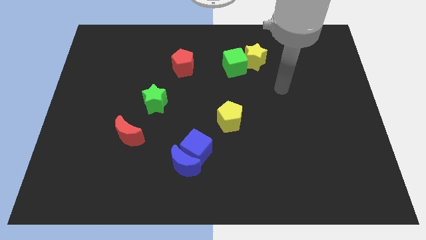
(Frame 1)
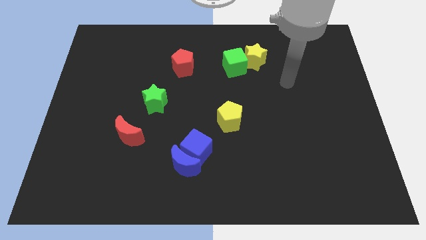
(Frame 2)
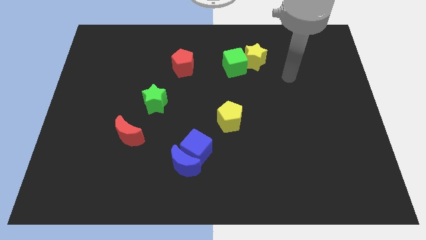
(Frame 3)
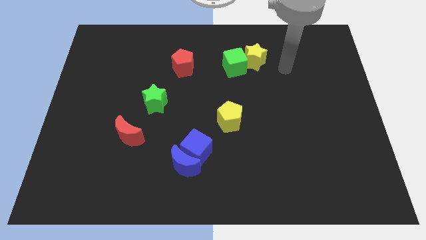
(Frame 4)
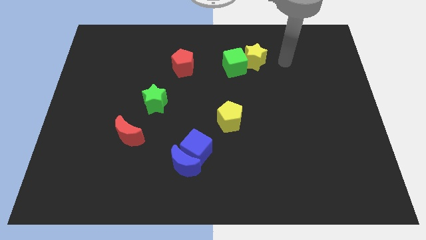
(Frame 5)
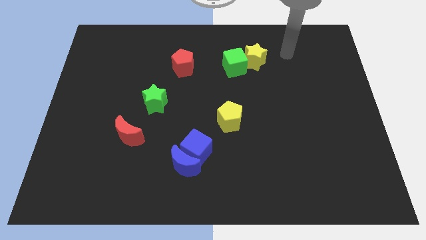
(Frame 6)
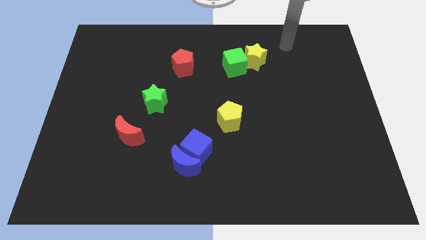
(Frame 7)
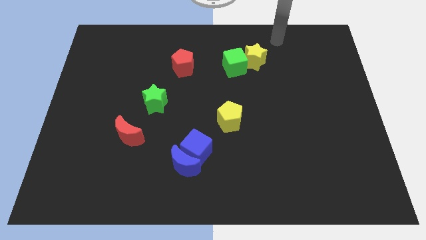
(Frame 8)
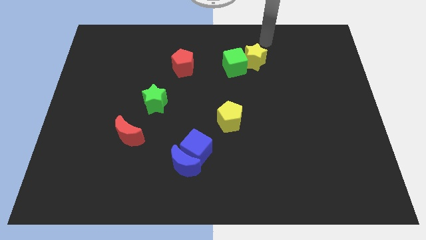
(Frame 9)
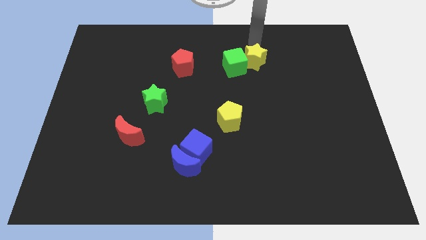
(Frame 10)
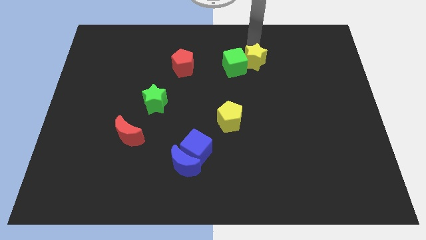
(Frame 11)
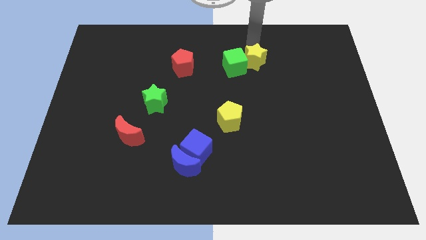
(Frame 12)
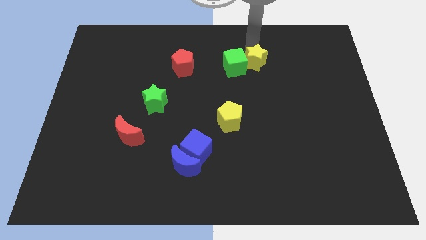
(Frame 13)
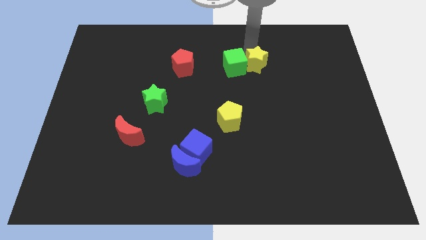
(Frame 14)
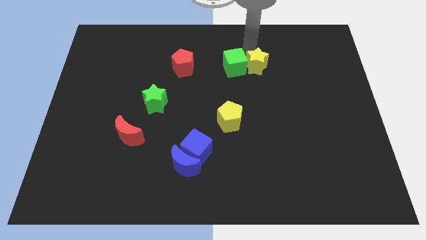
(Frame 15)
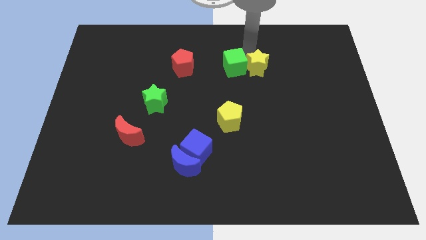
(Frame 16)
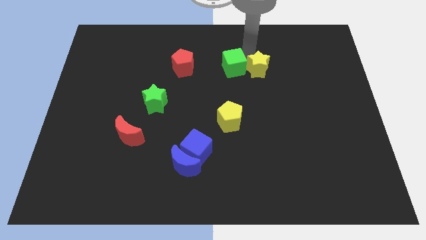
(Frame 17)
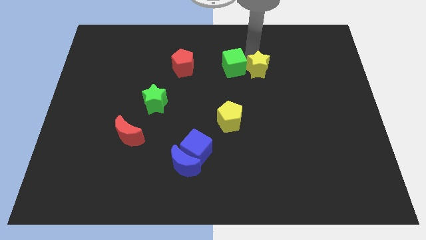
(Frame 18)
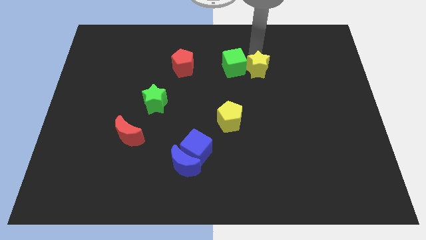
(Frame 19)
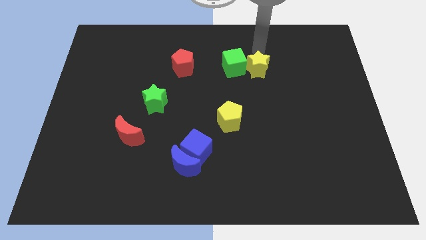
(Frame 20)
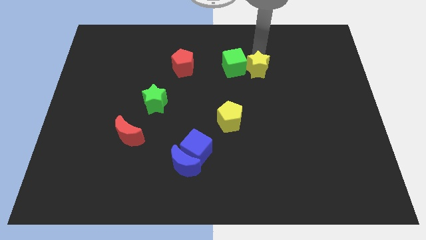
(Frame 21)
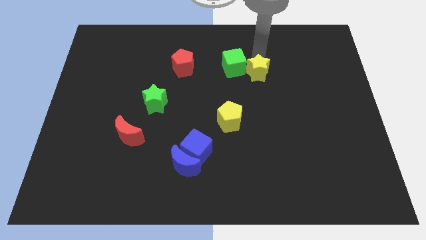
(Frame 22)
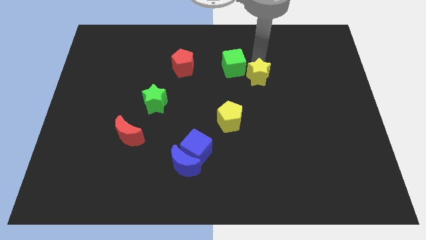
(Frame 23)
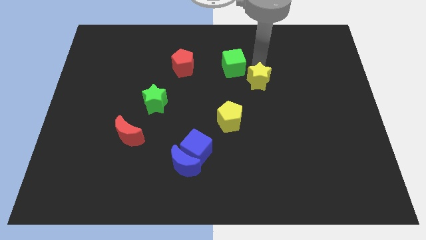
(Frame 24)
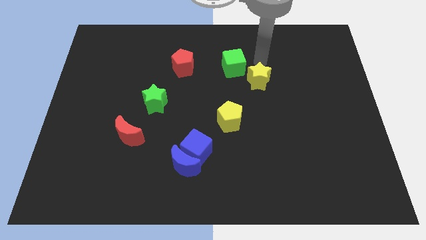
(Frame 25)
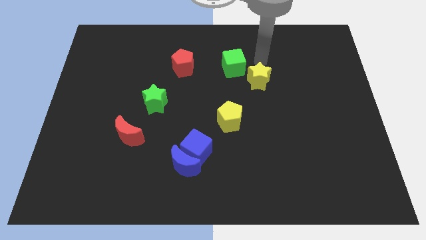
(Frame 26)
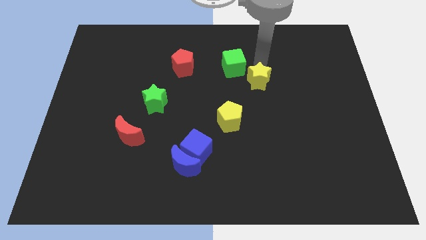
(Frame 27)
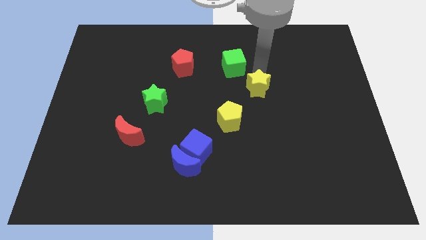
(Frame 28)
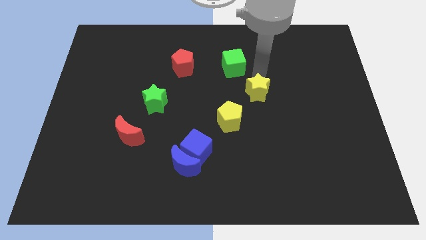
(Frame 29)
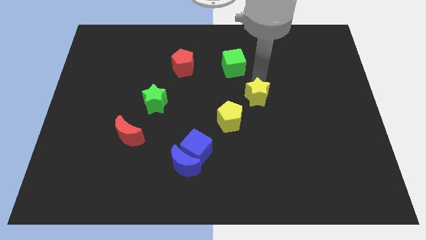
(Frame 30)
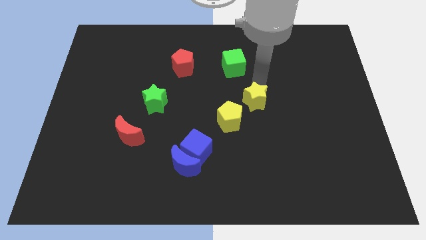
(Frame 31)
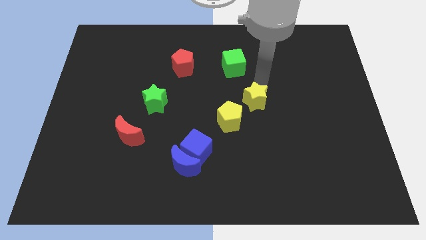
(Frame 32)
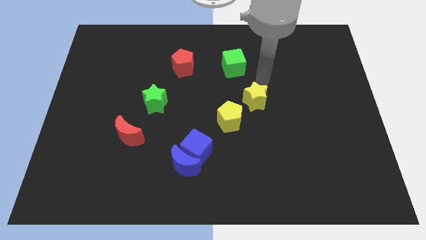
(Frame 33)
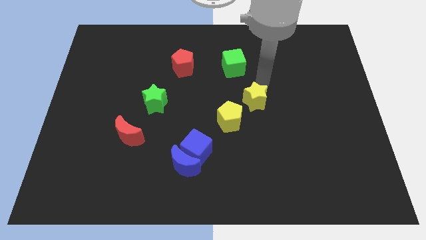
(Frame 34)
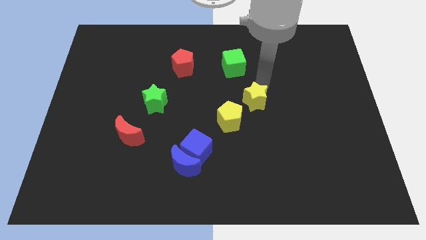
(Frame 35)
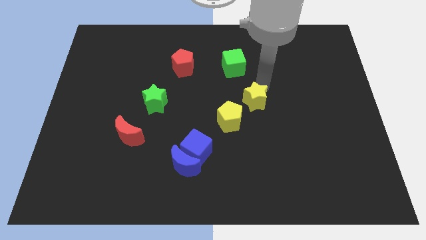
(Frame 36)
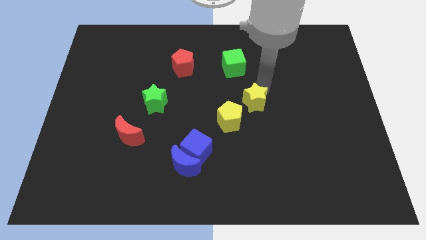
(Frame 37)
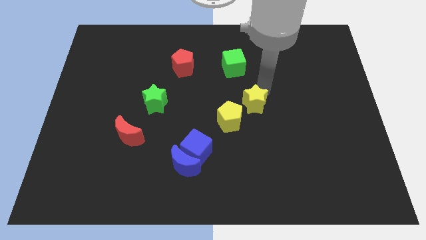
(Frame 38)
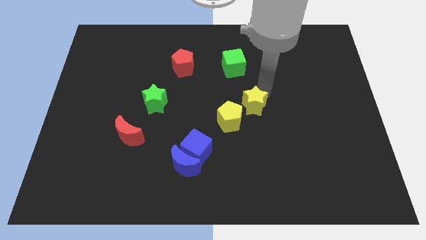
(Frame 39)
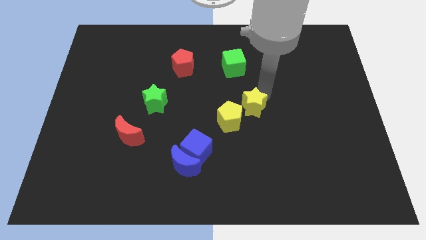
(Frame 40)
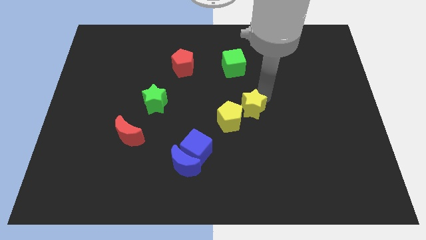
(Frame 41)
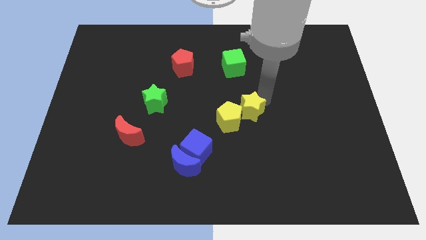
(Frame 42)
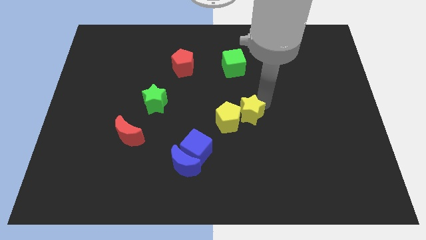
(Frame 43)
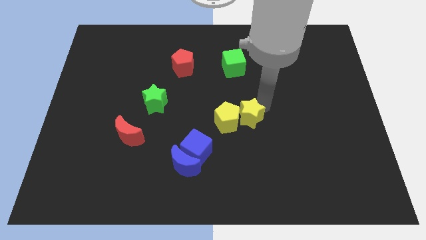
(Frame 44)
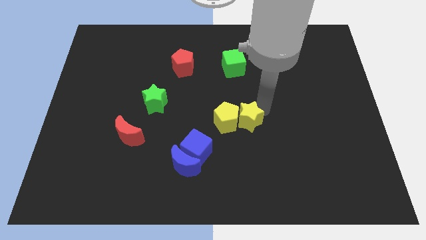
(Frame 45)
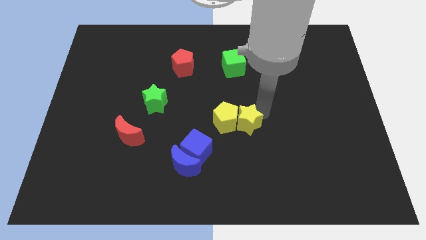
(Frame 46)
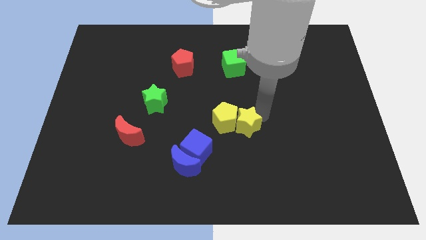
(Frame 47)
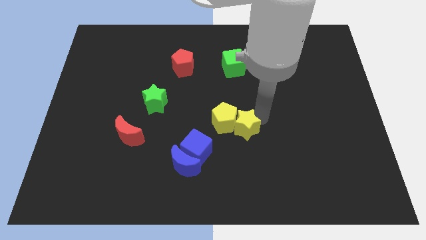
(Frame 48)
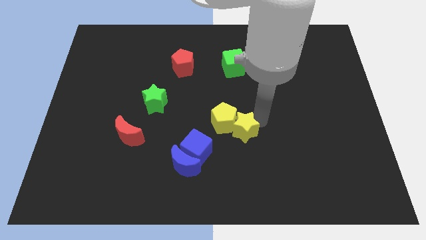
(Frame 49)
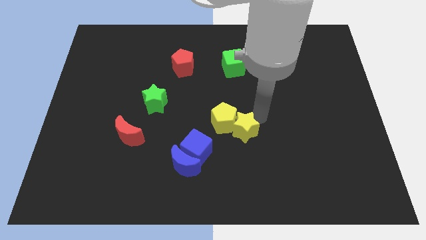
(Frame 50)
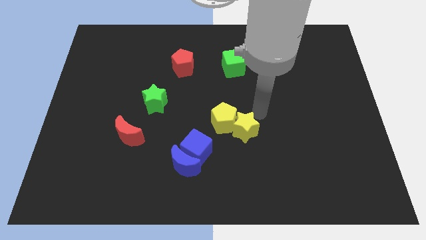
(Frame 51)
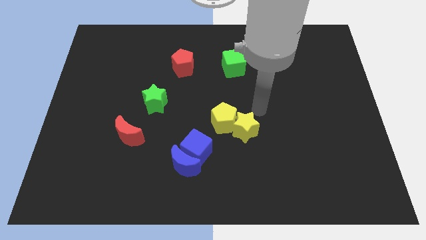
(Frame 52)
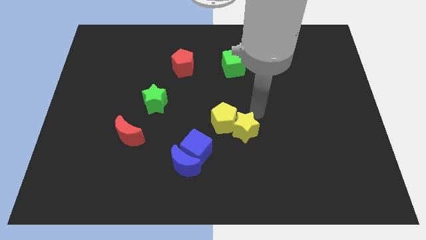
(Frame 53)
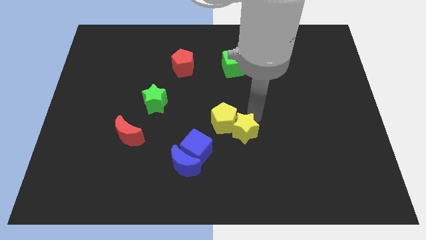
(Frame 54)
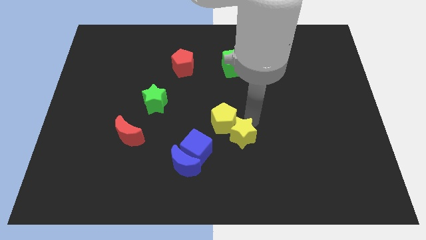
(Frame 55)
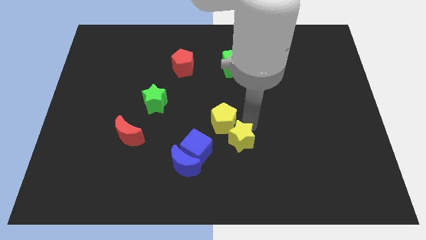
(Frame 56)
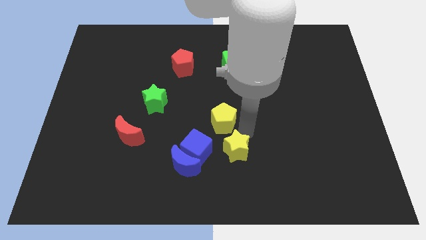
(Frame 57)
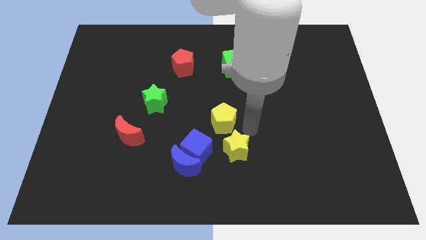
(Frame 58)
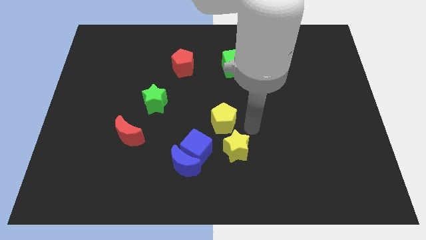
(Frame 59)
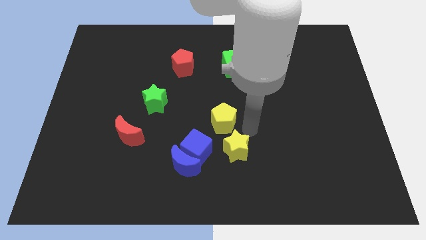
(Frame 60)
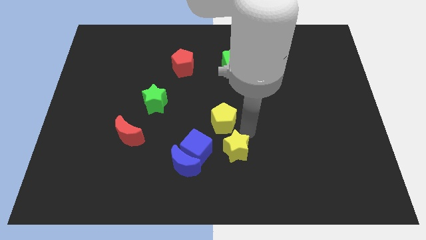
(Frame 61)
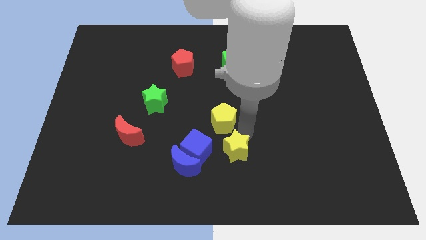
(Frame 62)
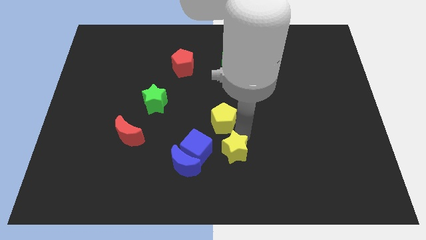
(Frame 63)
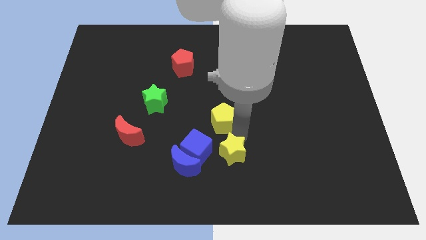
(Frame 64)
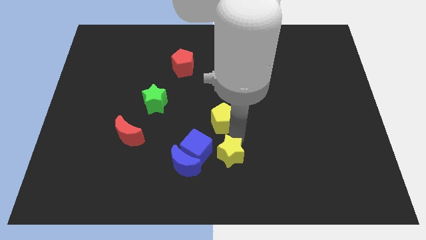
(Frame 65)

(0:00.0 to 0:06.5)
slide the yellow star to the bottom right side of the blue cube
